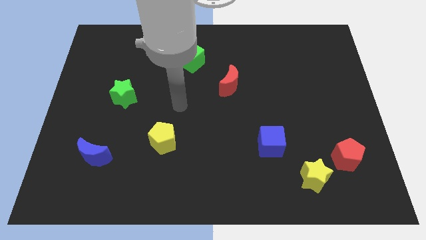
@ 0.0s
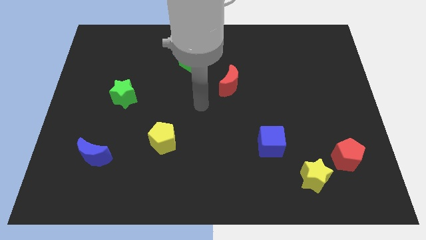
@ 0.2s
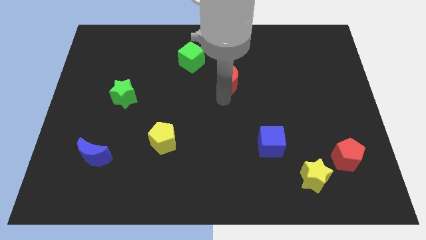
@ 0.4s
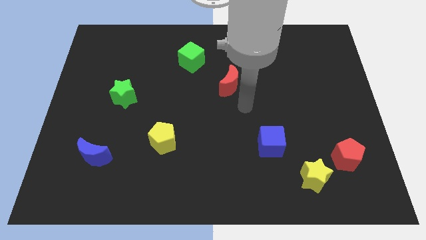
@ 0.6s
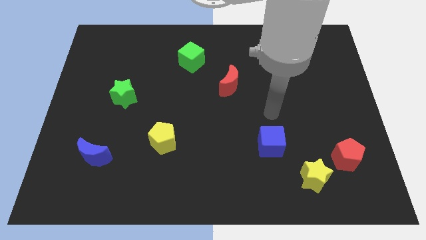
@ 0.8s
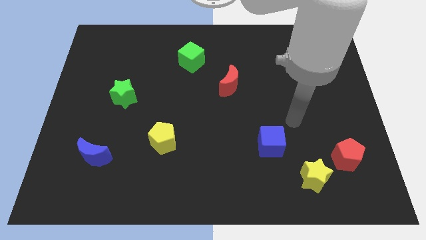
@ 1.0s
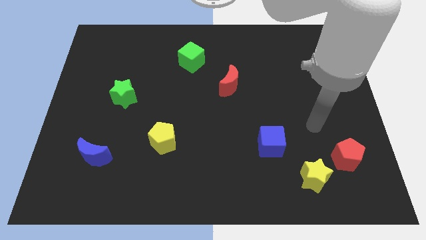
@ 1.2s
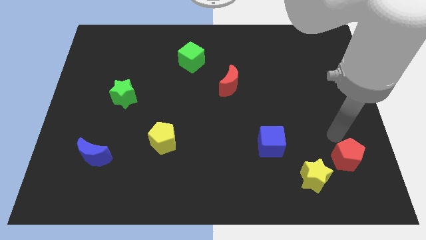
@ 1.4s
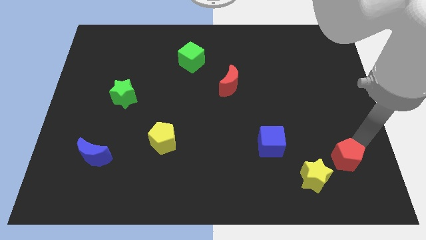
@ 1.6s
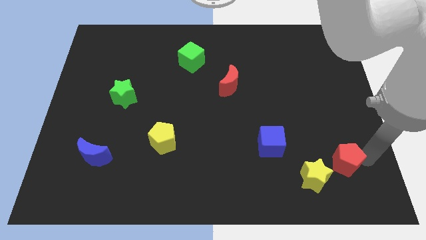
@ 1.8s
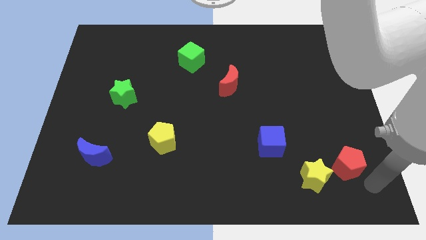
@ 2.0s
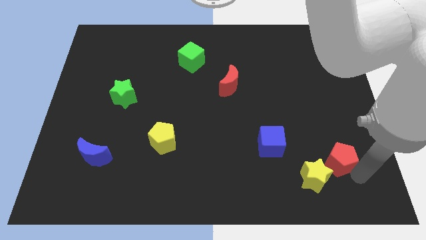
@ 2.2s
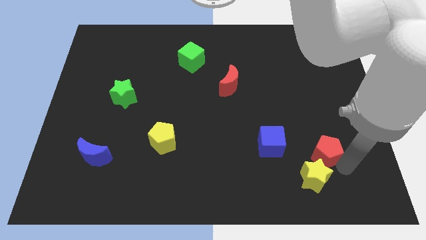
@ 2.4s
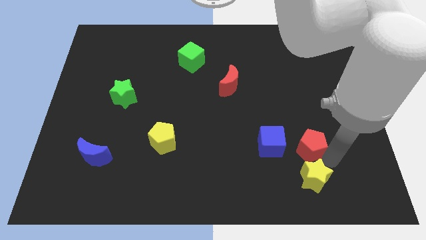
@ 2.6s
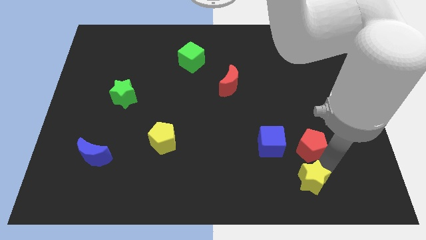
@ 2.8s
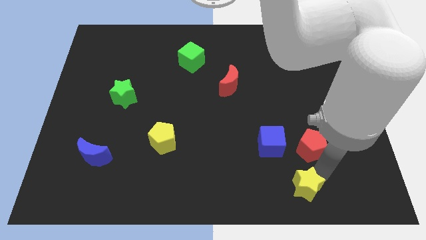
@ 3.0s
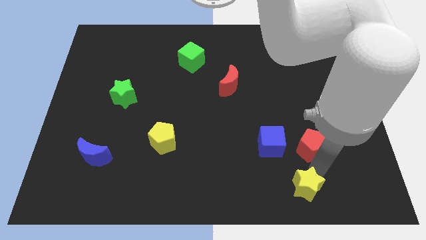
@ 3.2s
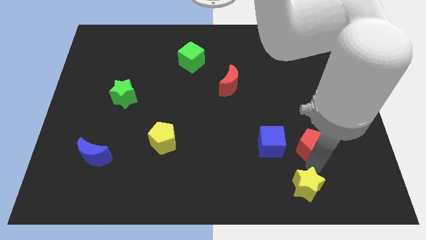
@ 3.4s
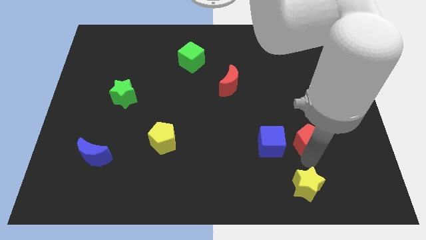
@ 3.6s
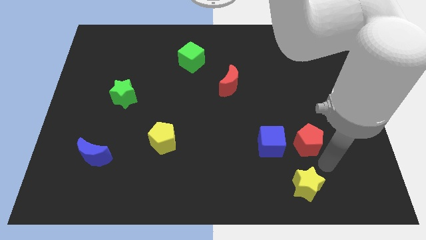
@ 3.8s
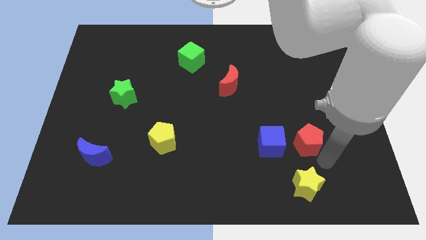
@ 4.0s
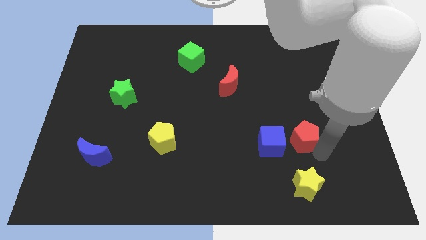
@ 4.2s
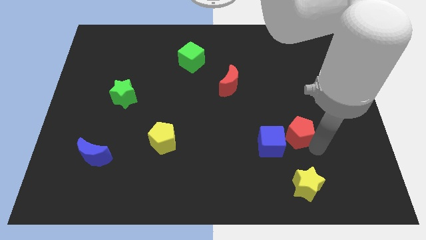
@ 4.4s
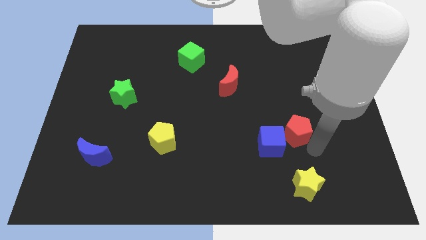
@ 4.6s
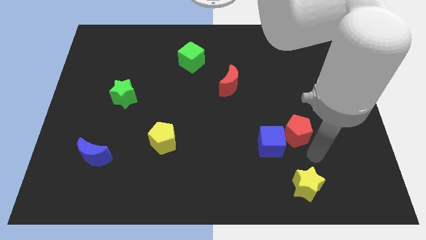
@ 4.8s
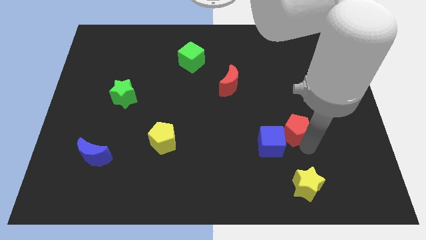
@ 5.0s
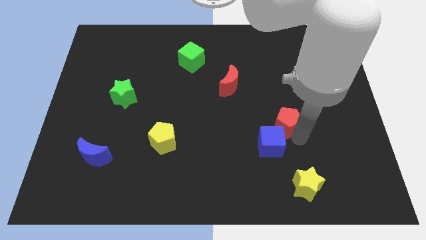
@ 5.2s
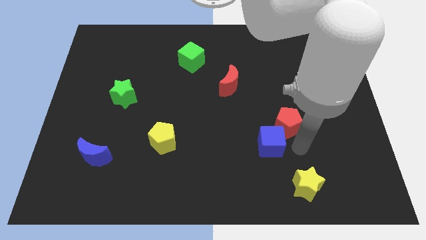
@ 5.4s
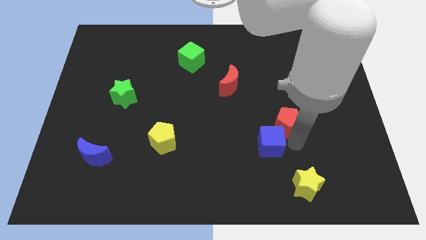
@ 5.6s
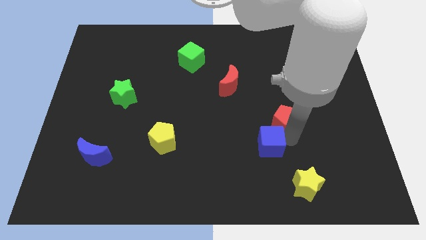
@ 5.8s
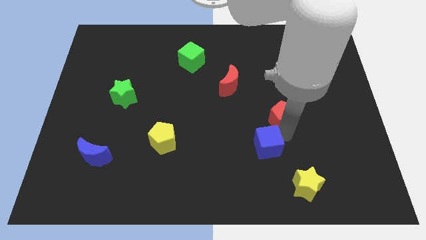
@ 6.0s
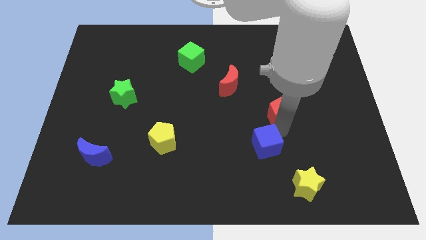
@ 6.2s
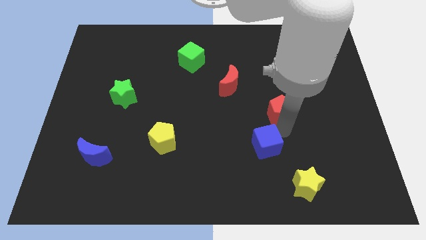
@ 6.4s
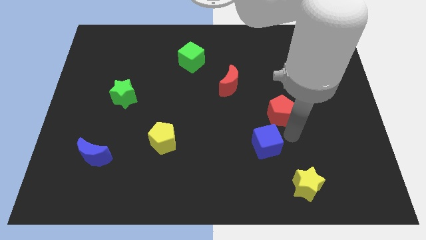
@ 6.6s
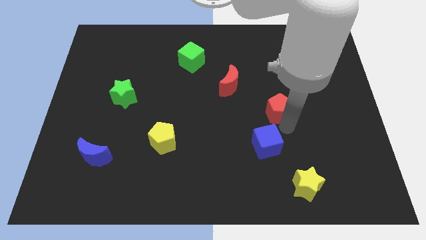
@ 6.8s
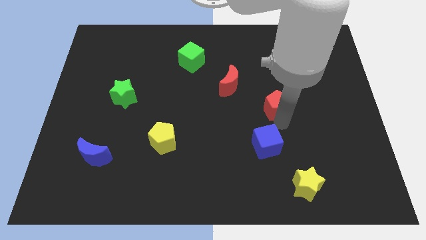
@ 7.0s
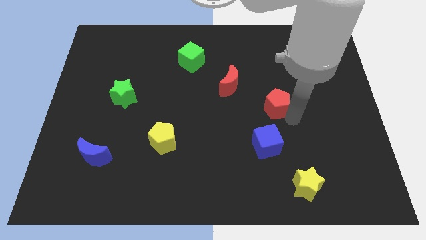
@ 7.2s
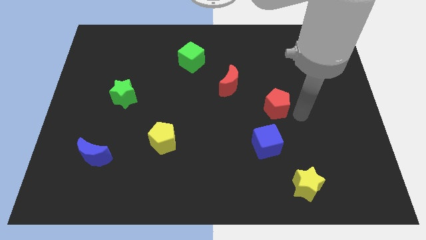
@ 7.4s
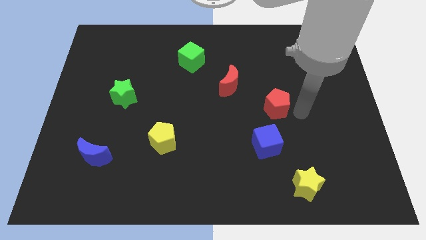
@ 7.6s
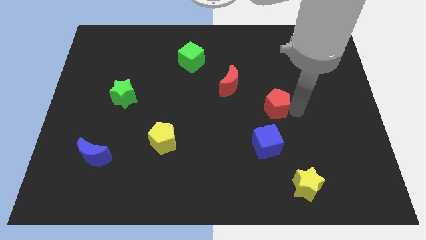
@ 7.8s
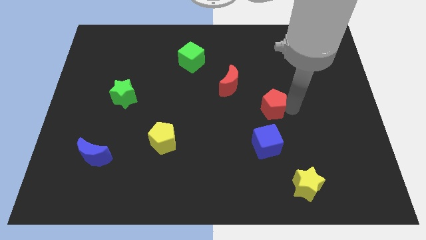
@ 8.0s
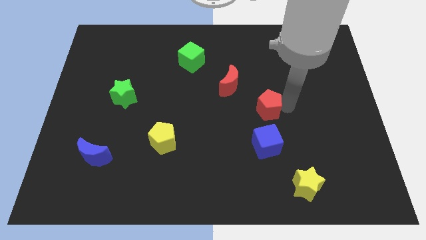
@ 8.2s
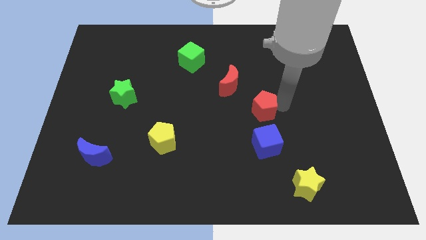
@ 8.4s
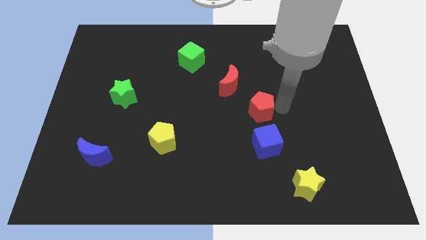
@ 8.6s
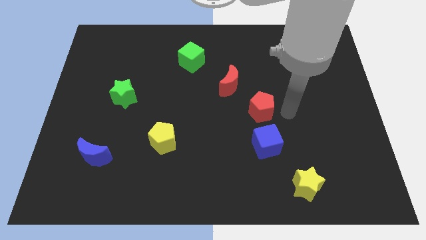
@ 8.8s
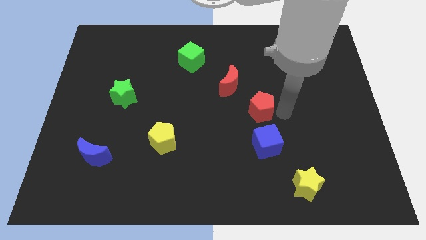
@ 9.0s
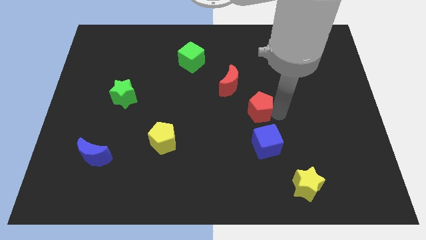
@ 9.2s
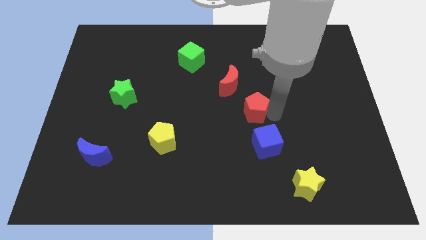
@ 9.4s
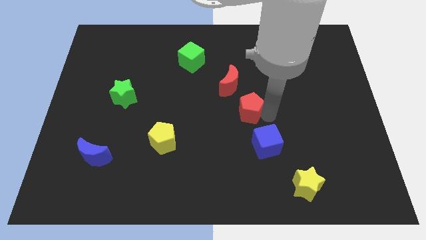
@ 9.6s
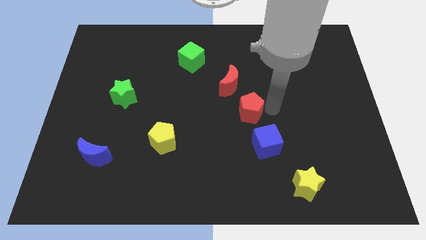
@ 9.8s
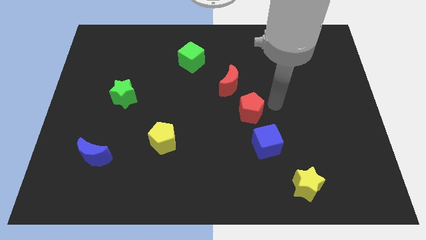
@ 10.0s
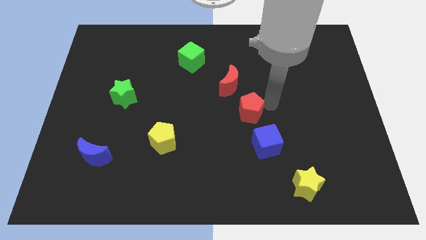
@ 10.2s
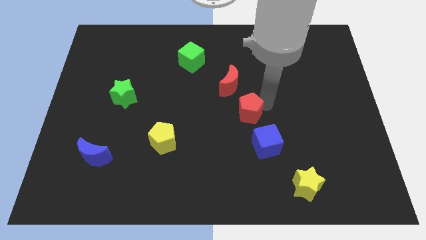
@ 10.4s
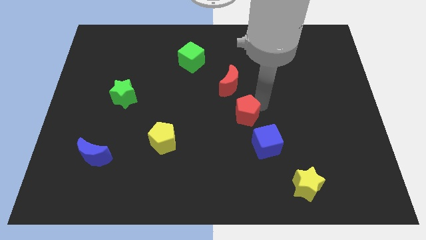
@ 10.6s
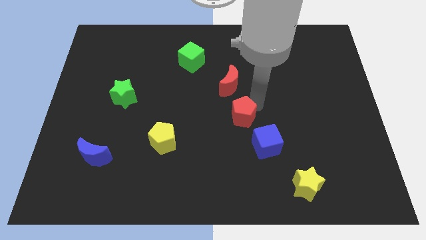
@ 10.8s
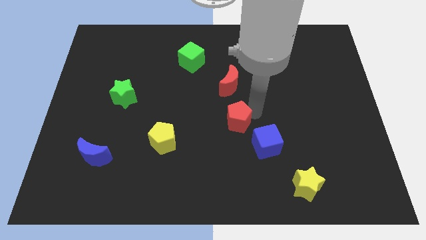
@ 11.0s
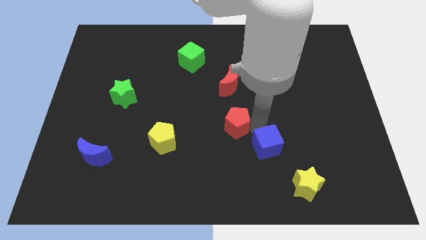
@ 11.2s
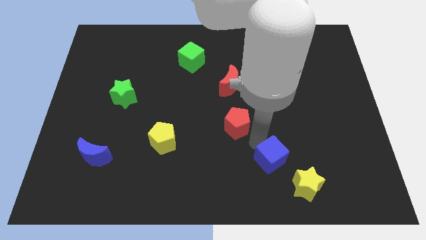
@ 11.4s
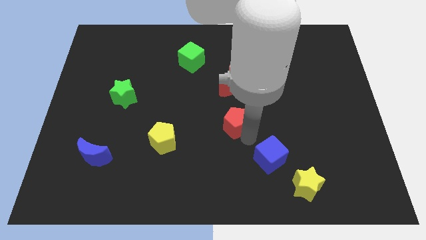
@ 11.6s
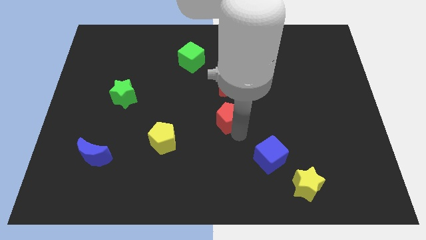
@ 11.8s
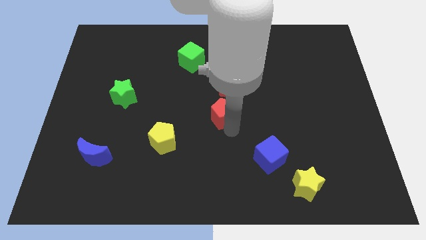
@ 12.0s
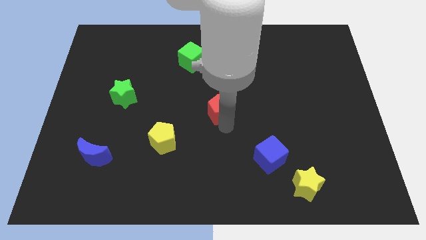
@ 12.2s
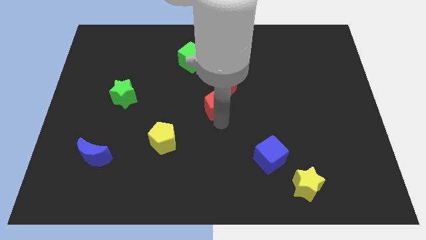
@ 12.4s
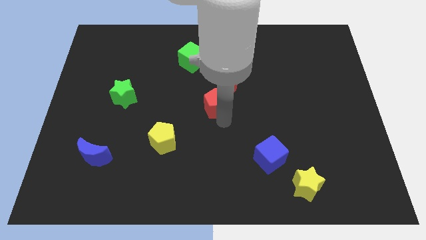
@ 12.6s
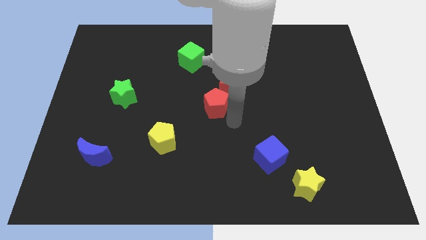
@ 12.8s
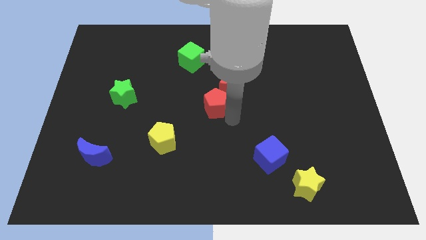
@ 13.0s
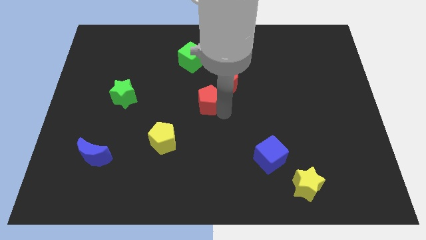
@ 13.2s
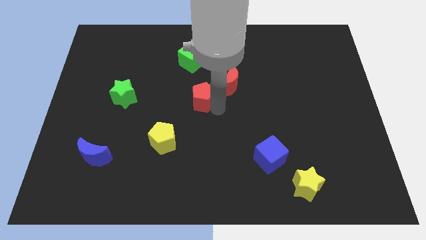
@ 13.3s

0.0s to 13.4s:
push the red pentagon to the left side of the red moon
